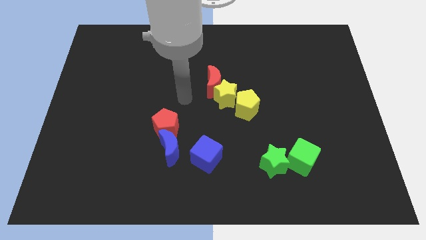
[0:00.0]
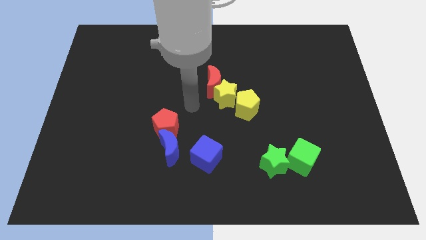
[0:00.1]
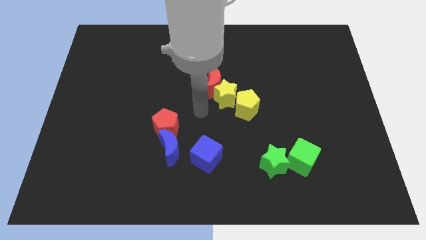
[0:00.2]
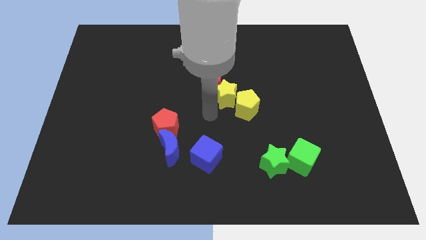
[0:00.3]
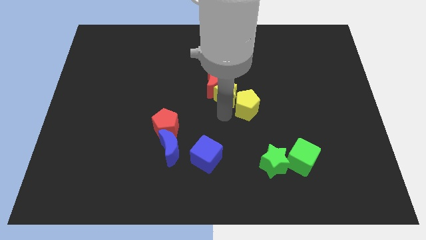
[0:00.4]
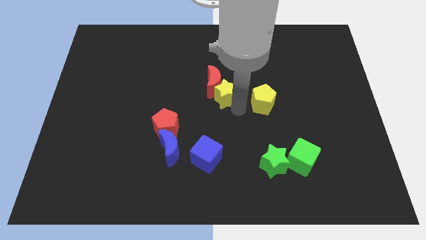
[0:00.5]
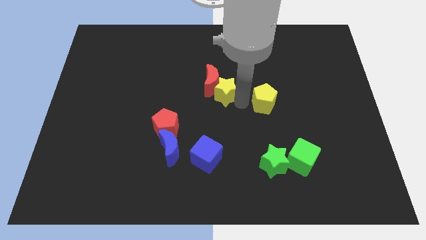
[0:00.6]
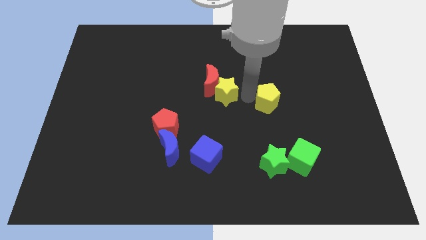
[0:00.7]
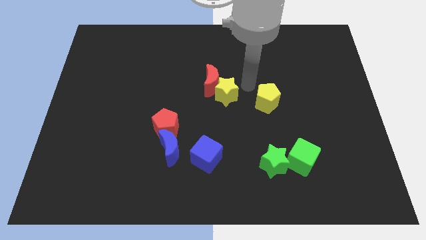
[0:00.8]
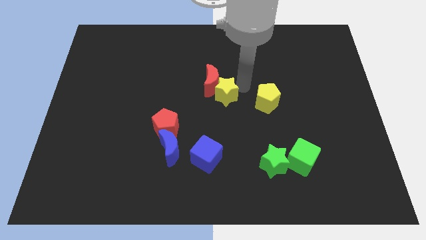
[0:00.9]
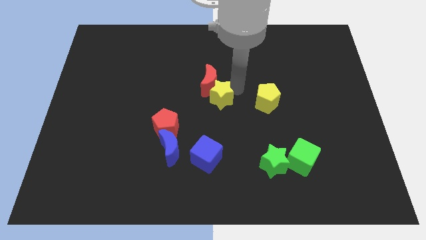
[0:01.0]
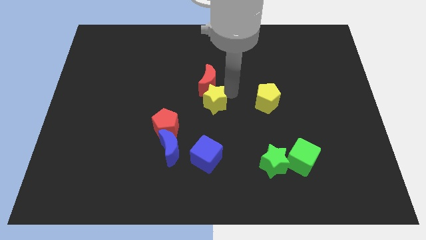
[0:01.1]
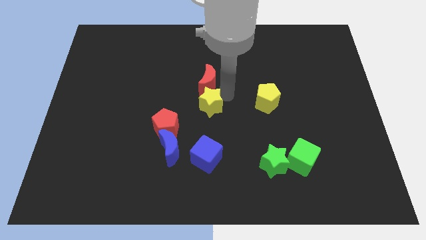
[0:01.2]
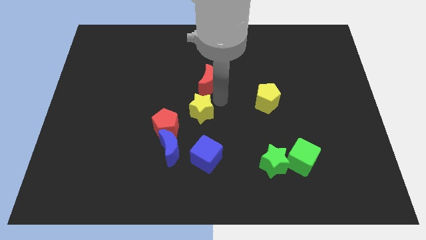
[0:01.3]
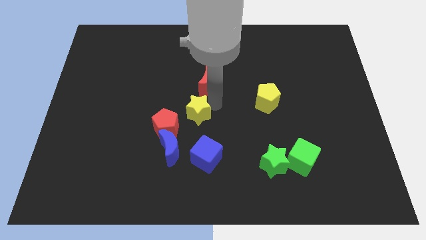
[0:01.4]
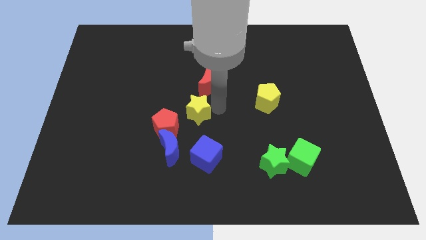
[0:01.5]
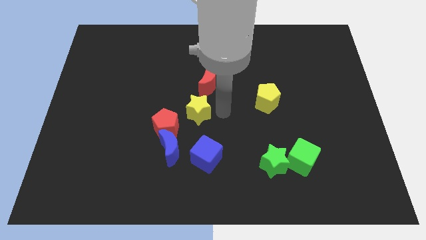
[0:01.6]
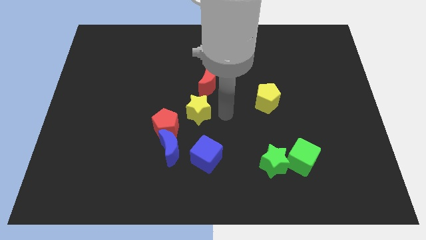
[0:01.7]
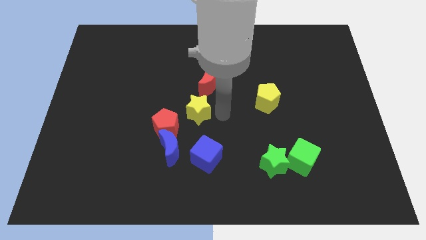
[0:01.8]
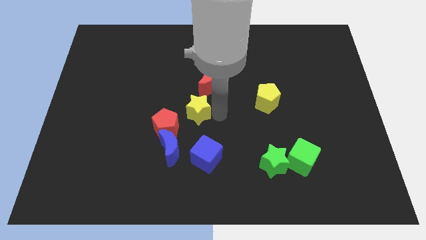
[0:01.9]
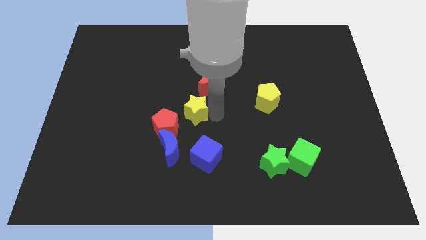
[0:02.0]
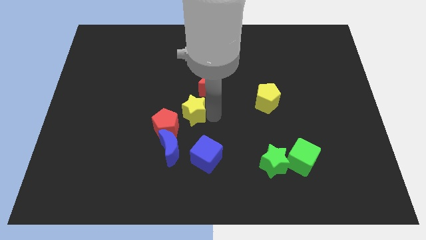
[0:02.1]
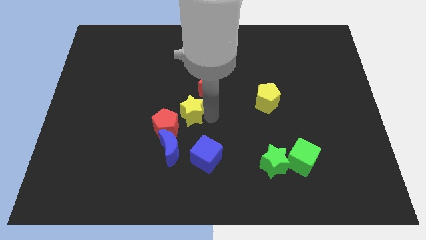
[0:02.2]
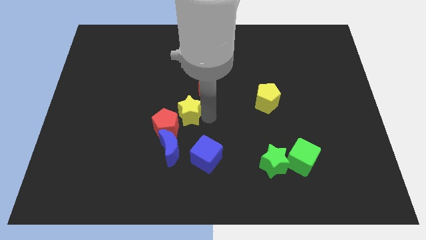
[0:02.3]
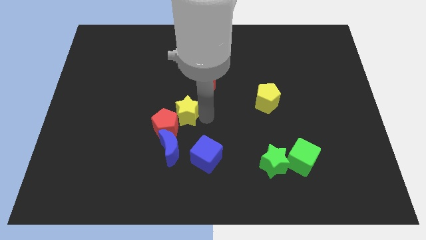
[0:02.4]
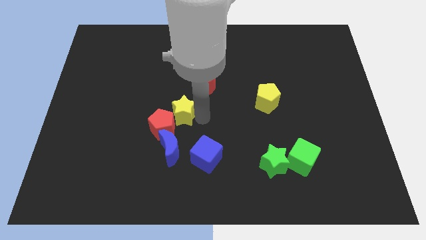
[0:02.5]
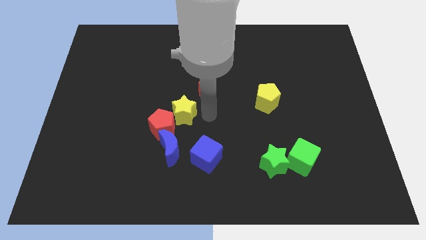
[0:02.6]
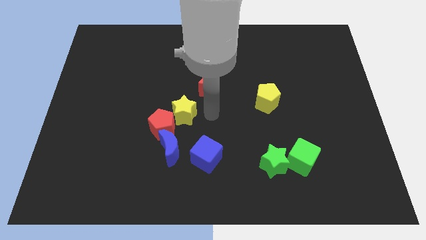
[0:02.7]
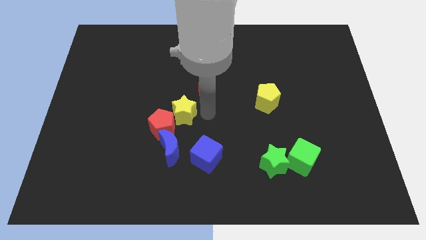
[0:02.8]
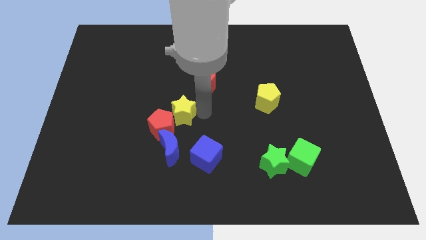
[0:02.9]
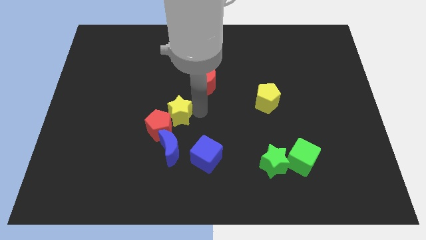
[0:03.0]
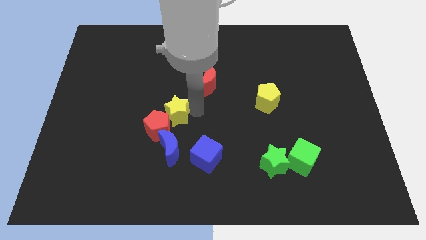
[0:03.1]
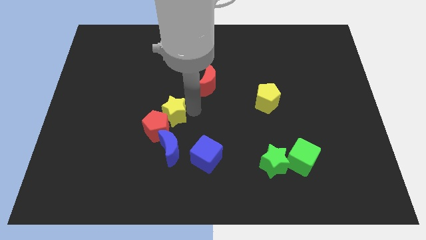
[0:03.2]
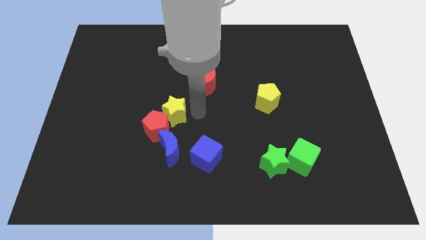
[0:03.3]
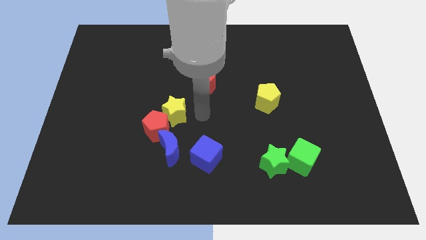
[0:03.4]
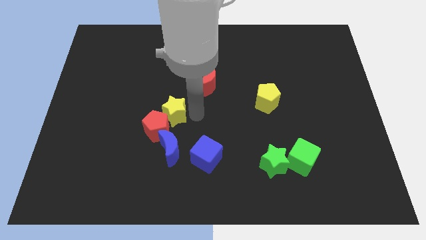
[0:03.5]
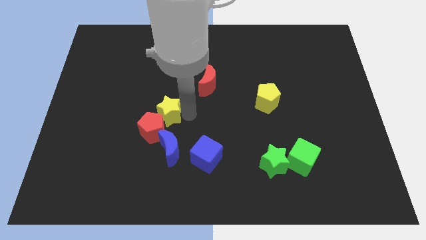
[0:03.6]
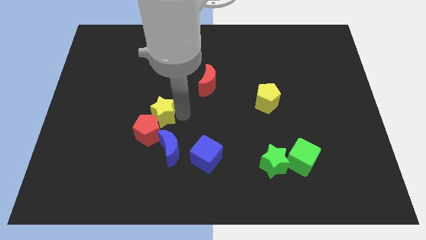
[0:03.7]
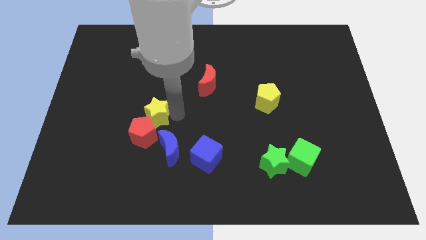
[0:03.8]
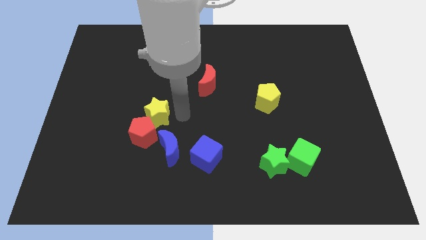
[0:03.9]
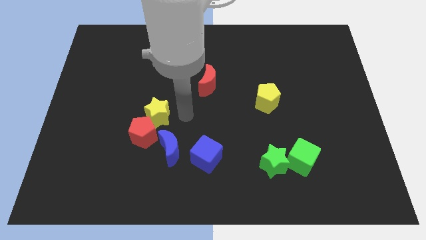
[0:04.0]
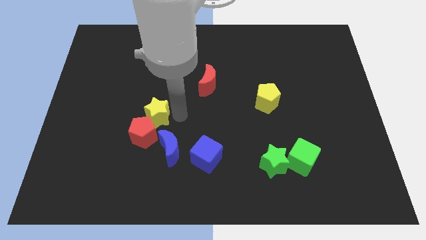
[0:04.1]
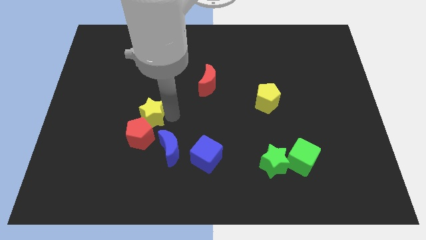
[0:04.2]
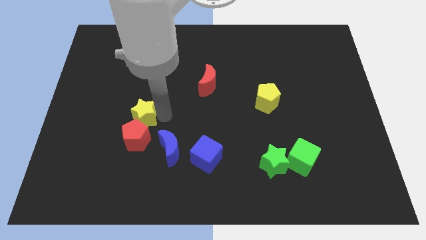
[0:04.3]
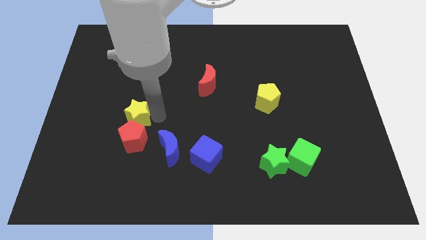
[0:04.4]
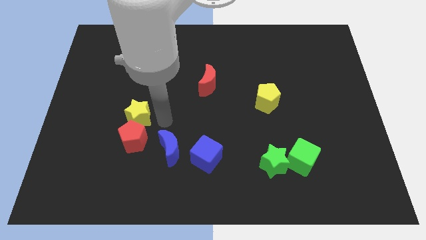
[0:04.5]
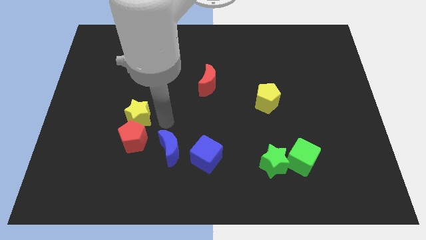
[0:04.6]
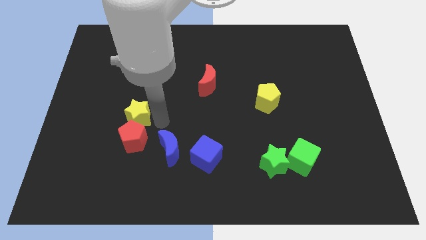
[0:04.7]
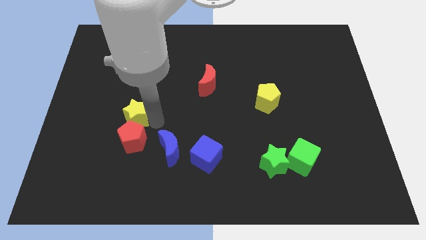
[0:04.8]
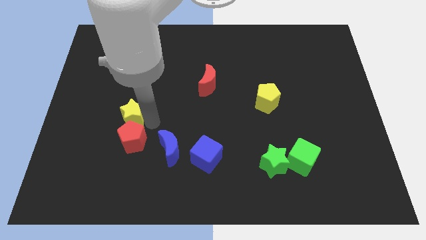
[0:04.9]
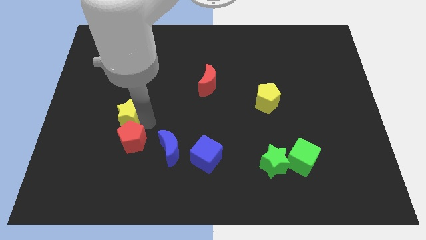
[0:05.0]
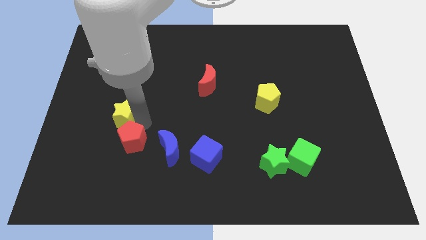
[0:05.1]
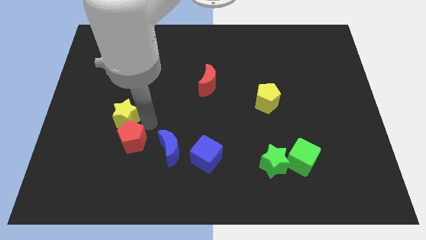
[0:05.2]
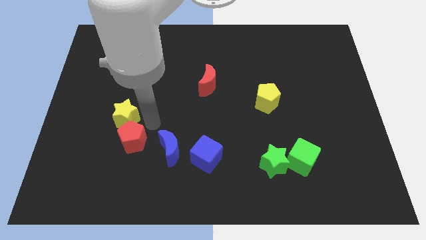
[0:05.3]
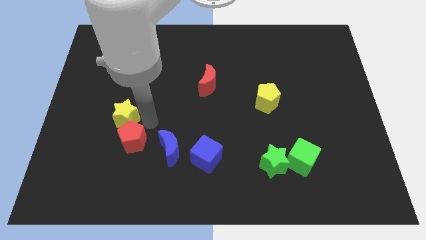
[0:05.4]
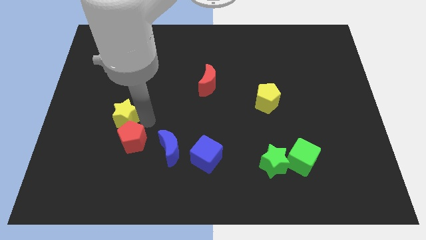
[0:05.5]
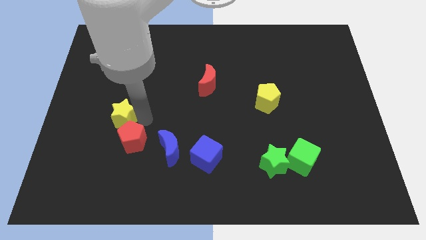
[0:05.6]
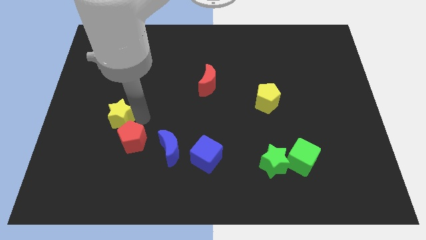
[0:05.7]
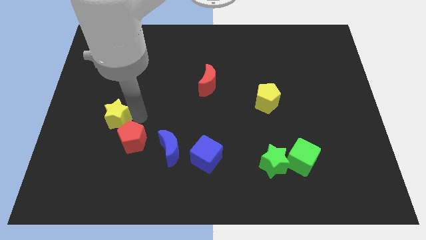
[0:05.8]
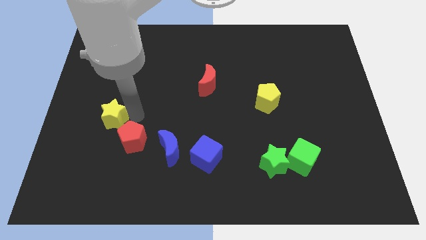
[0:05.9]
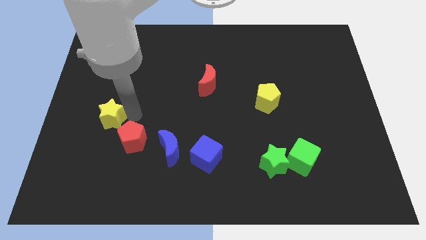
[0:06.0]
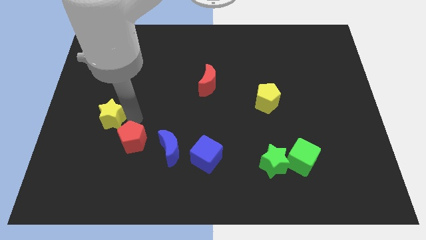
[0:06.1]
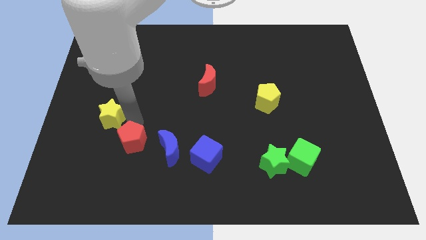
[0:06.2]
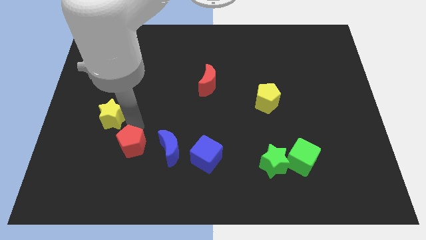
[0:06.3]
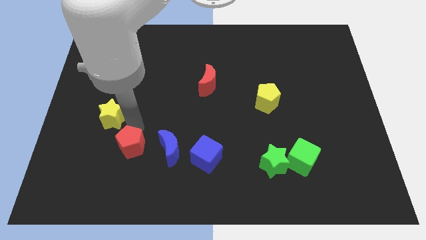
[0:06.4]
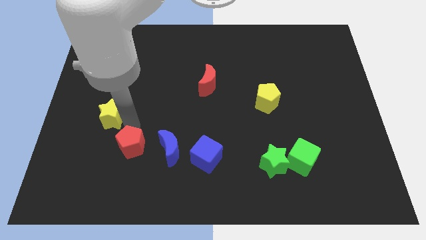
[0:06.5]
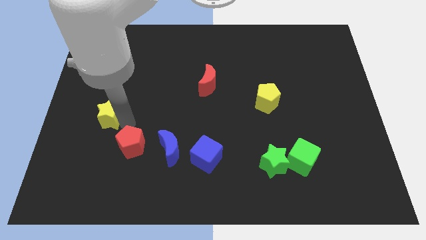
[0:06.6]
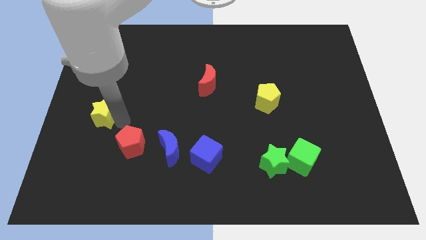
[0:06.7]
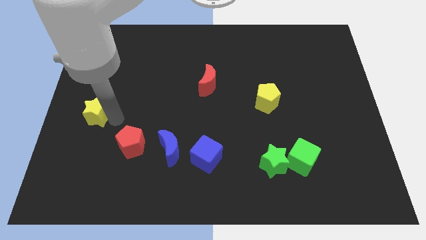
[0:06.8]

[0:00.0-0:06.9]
move the yellow star to the center left

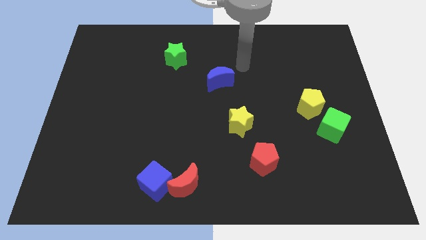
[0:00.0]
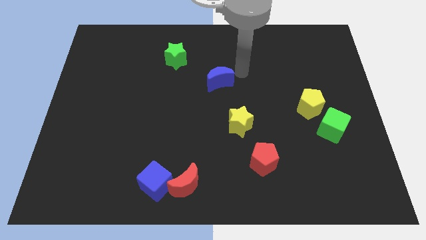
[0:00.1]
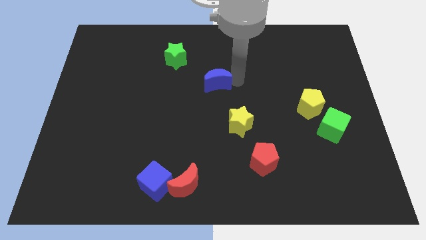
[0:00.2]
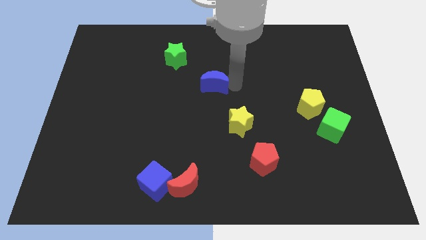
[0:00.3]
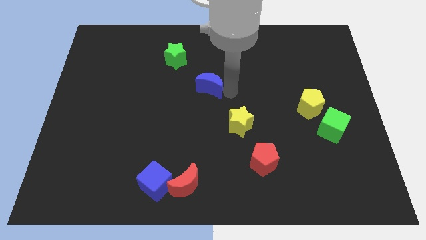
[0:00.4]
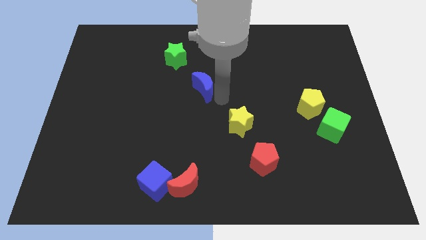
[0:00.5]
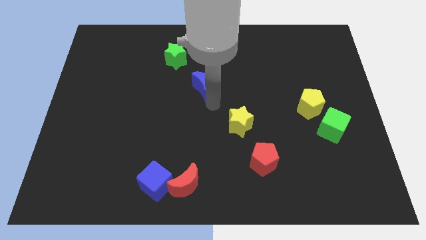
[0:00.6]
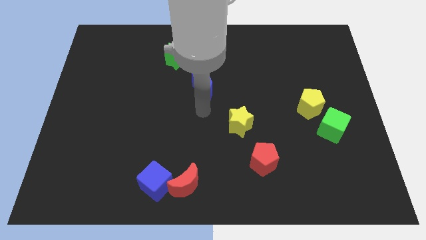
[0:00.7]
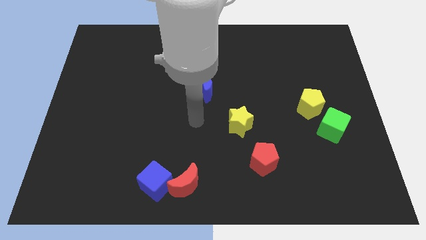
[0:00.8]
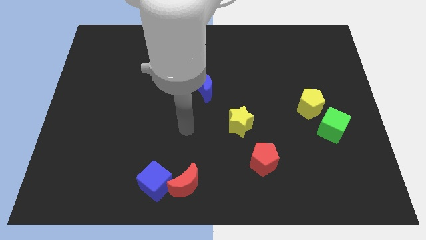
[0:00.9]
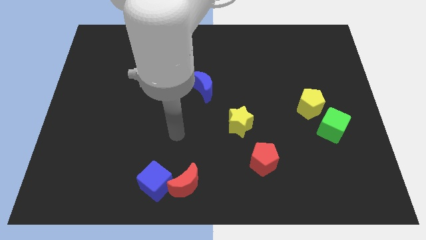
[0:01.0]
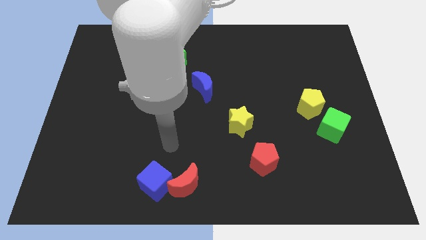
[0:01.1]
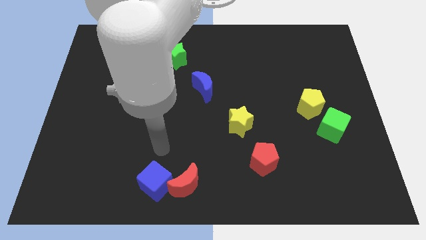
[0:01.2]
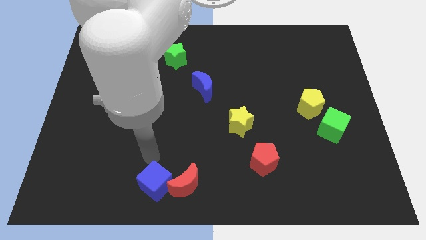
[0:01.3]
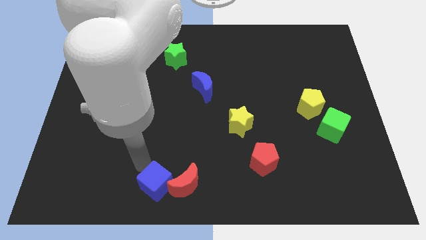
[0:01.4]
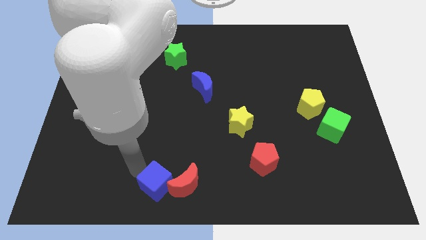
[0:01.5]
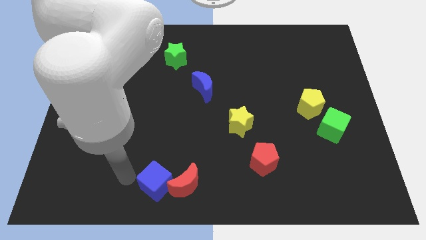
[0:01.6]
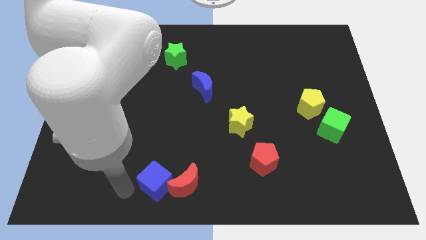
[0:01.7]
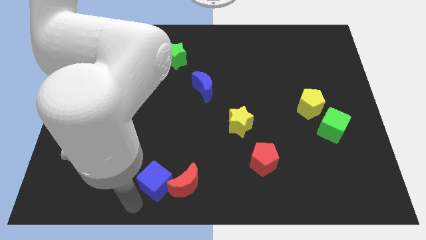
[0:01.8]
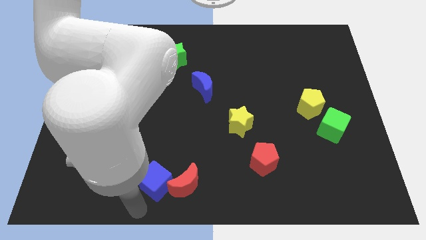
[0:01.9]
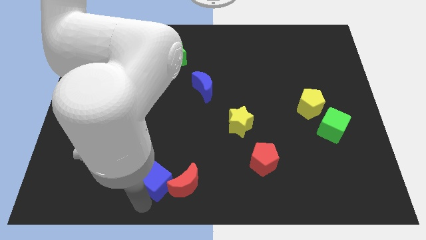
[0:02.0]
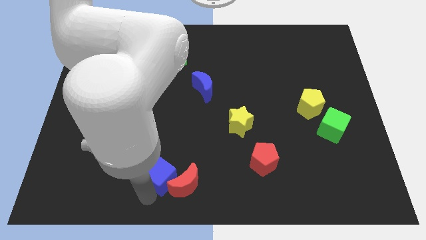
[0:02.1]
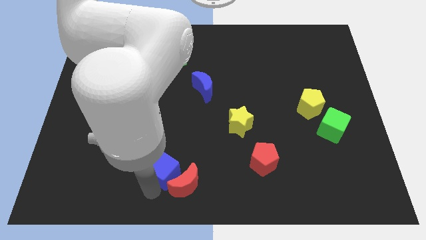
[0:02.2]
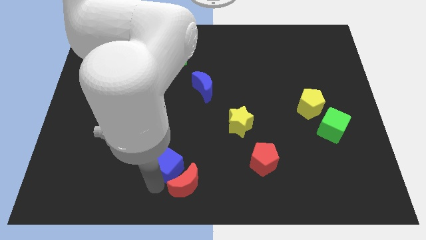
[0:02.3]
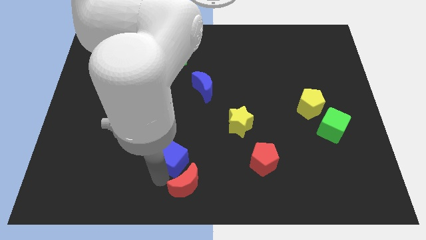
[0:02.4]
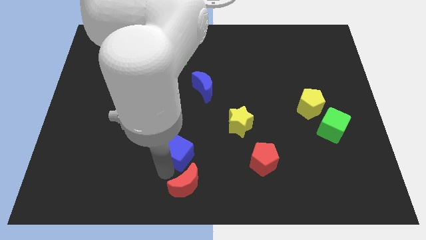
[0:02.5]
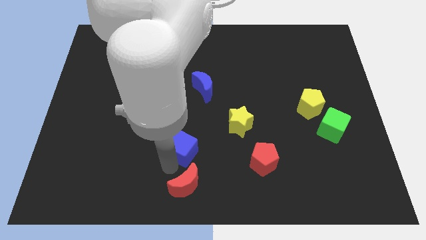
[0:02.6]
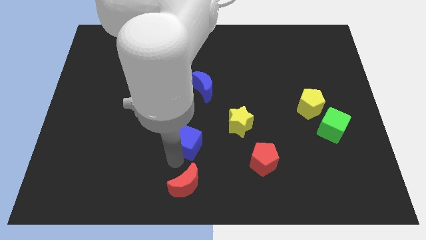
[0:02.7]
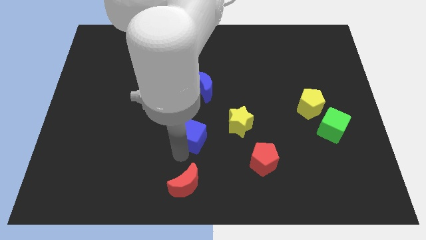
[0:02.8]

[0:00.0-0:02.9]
push the blue cube to the middle
